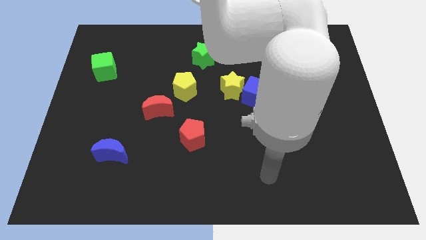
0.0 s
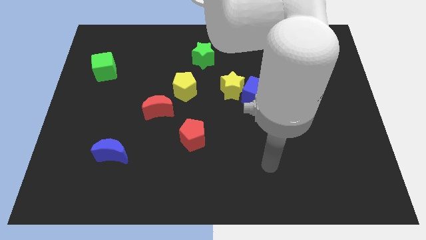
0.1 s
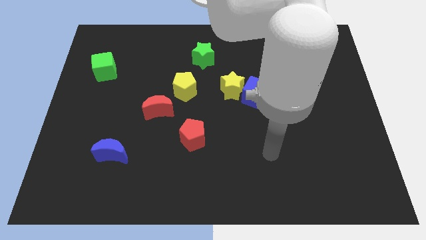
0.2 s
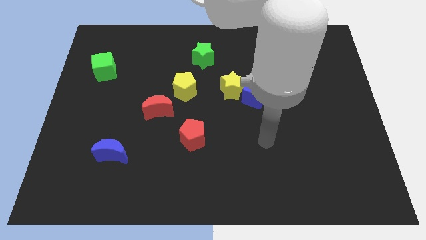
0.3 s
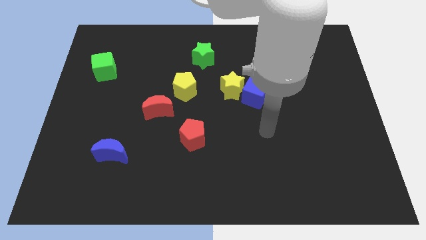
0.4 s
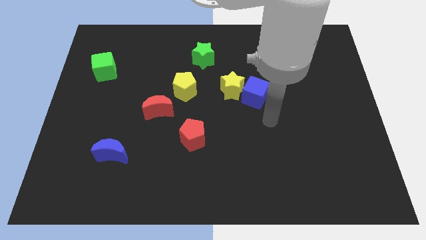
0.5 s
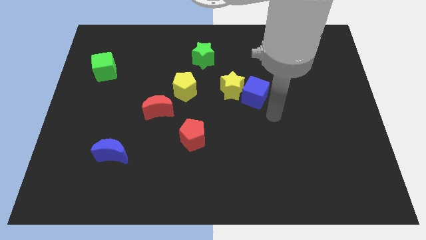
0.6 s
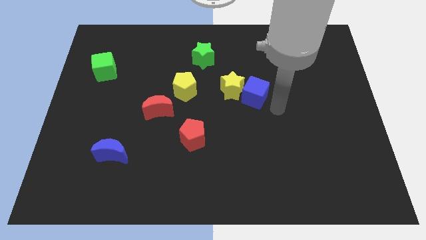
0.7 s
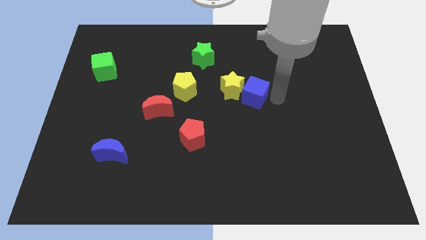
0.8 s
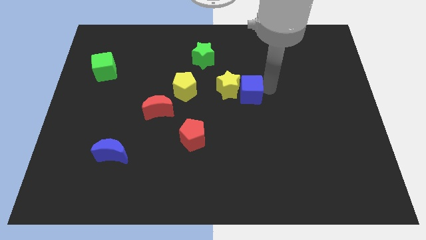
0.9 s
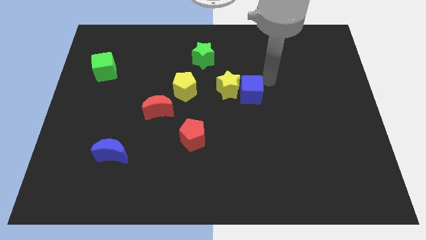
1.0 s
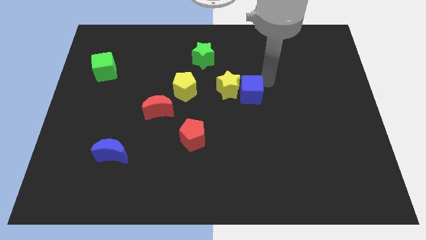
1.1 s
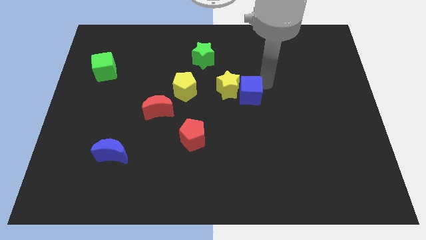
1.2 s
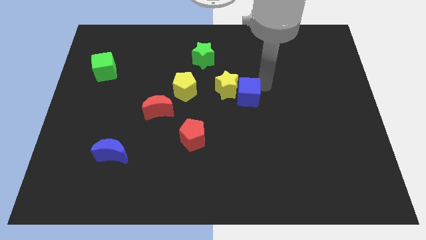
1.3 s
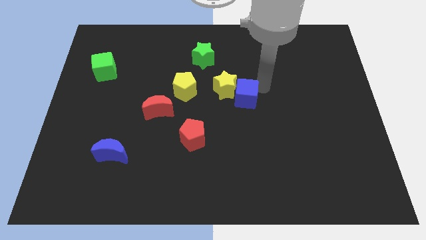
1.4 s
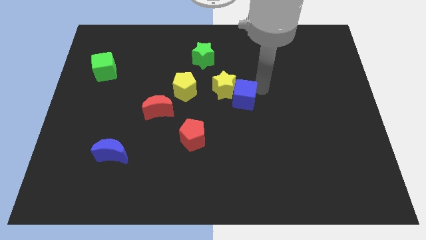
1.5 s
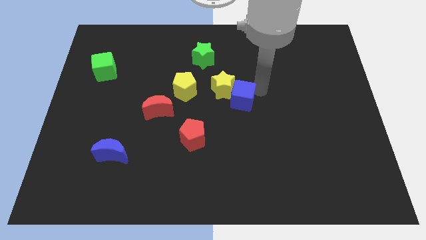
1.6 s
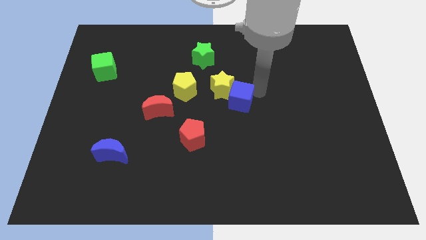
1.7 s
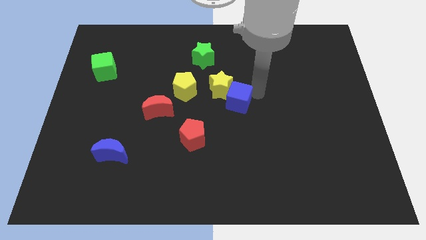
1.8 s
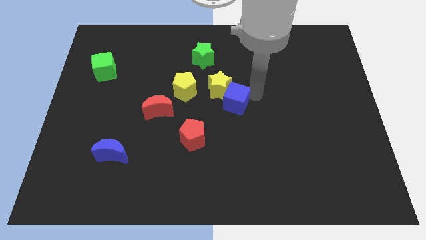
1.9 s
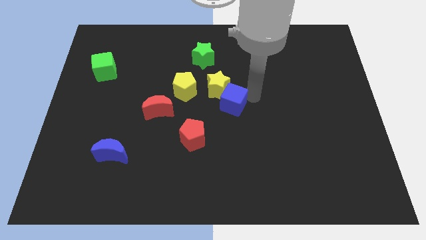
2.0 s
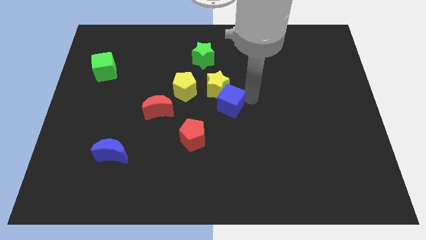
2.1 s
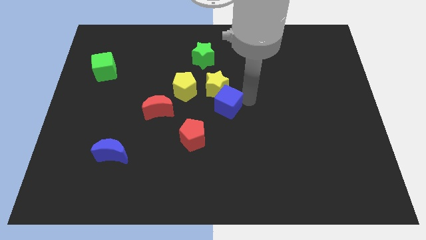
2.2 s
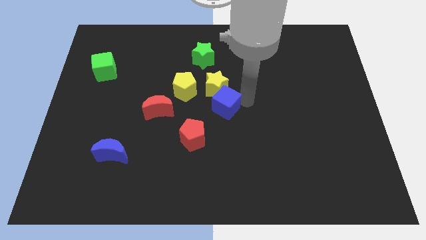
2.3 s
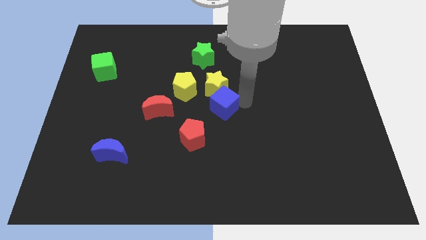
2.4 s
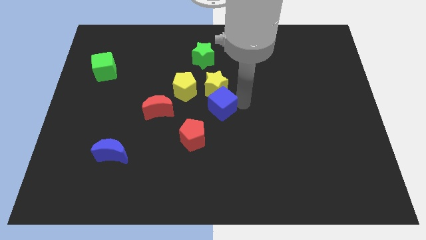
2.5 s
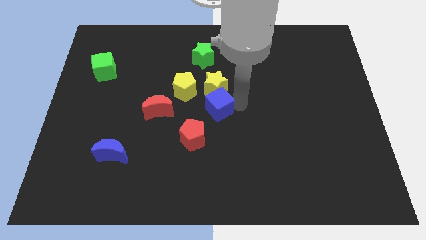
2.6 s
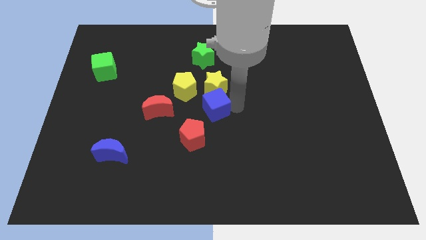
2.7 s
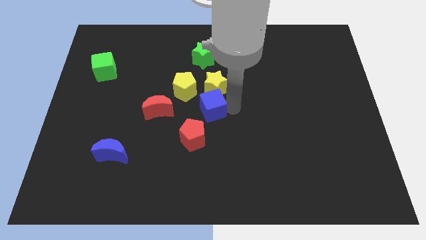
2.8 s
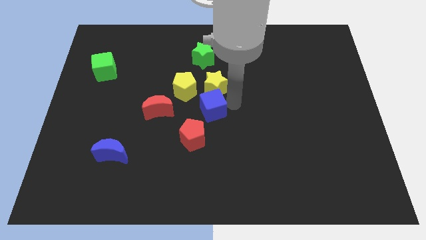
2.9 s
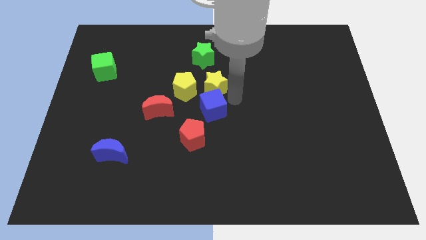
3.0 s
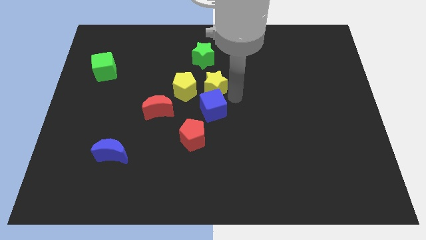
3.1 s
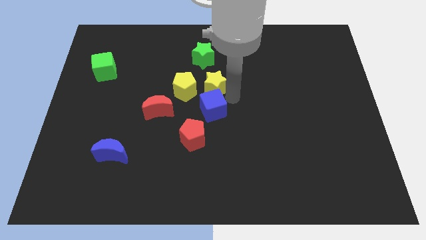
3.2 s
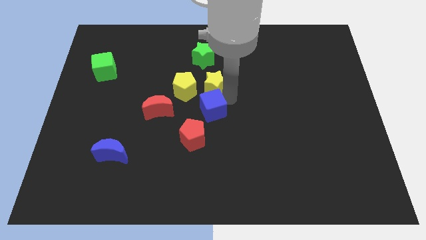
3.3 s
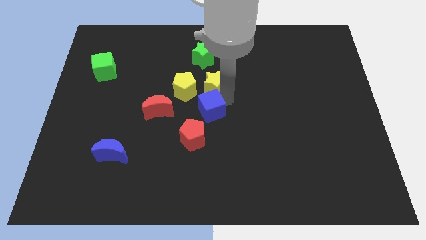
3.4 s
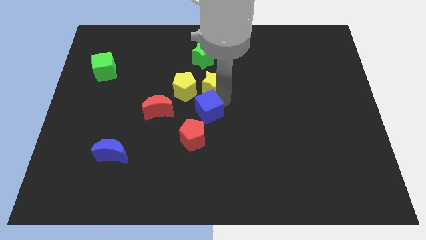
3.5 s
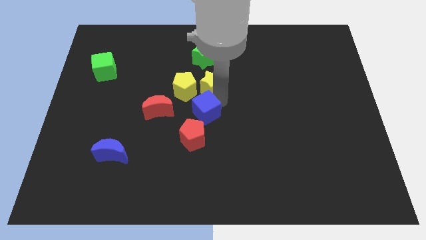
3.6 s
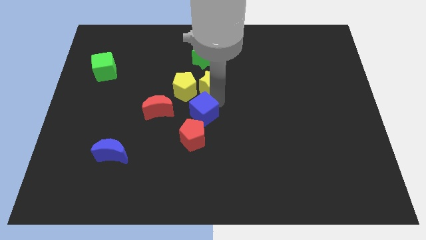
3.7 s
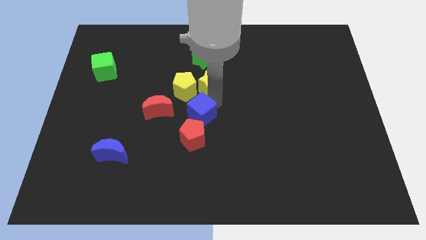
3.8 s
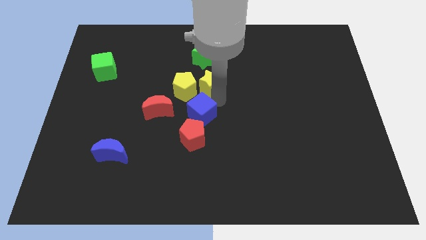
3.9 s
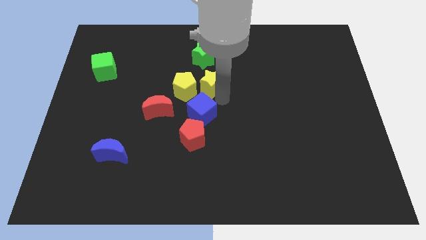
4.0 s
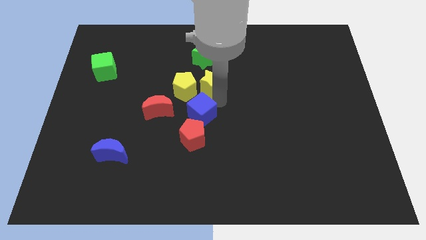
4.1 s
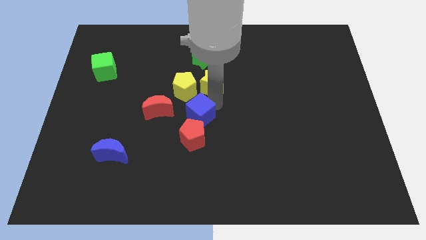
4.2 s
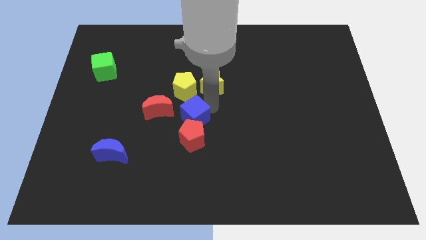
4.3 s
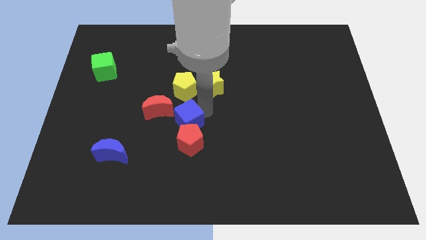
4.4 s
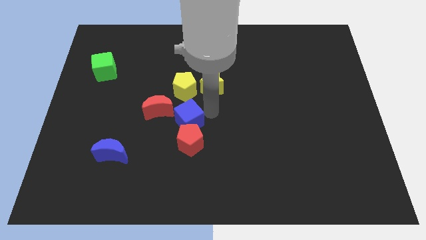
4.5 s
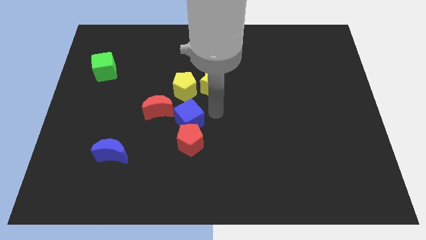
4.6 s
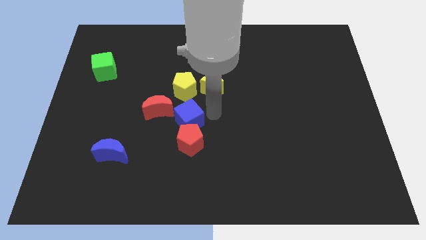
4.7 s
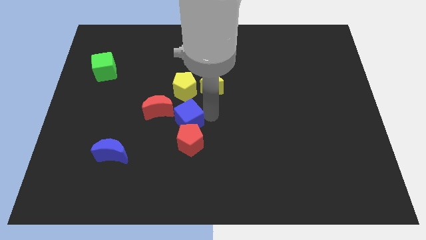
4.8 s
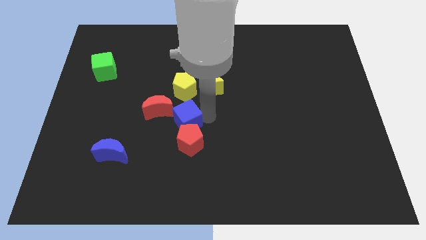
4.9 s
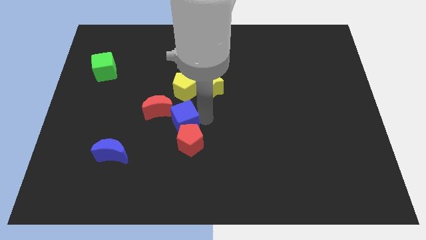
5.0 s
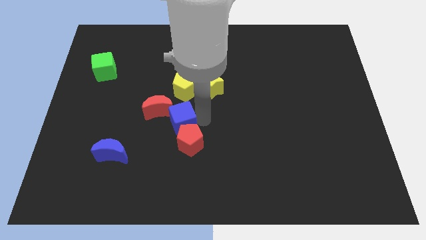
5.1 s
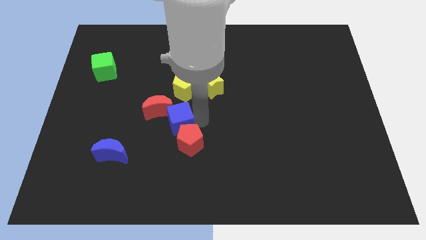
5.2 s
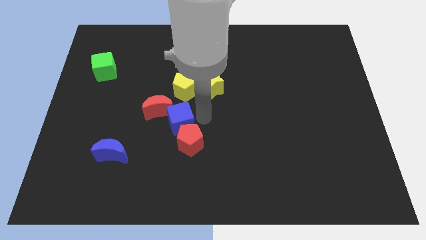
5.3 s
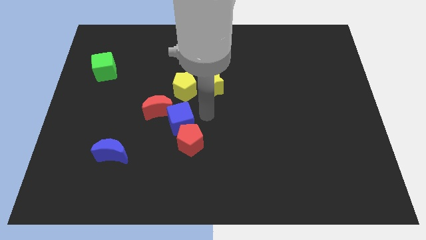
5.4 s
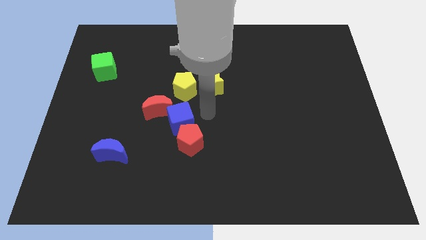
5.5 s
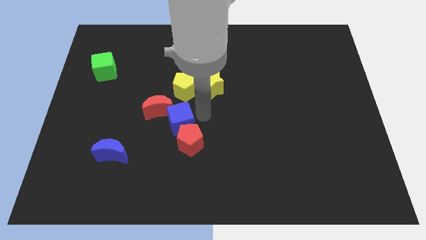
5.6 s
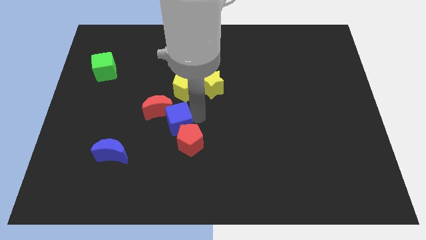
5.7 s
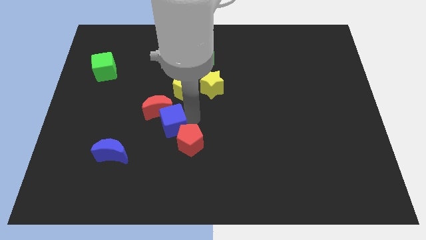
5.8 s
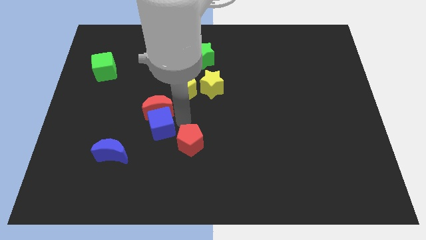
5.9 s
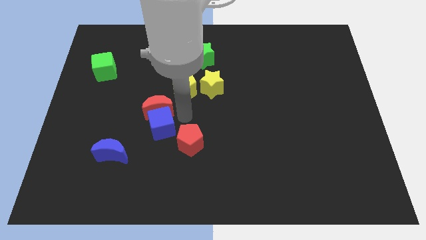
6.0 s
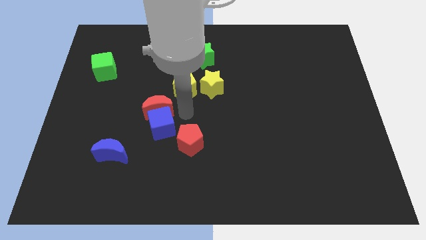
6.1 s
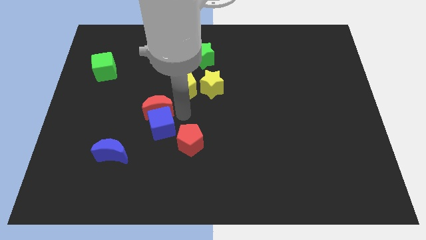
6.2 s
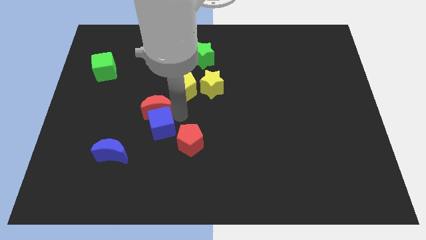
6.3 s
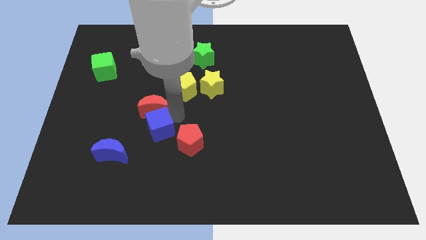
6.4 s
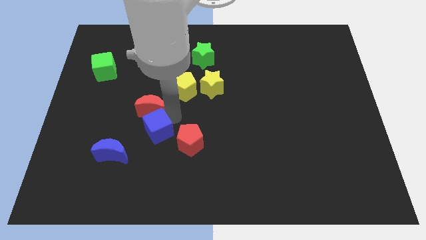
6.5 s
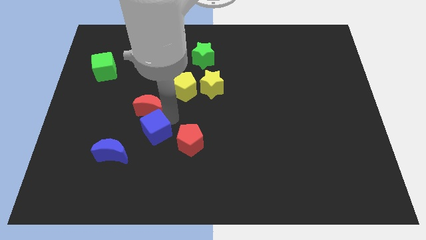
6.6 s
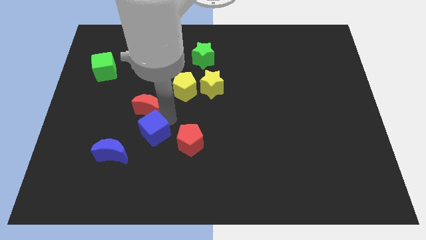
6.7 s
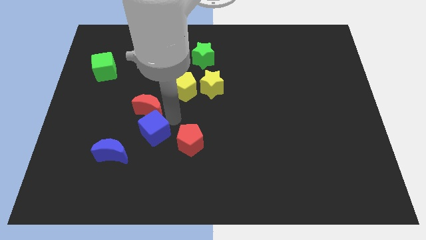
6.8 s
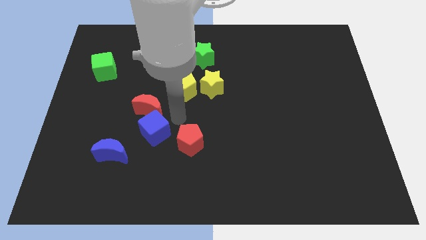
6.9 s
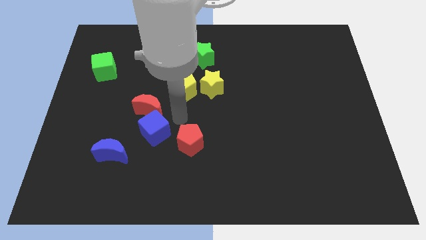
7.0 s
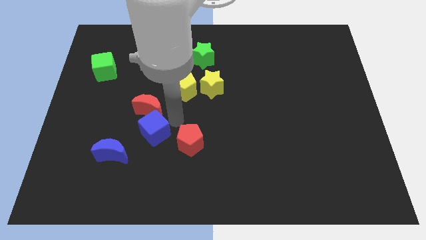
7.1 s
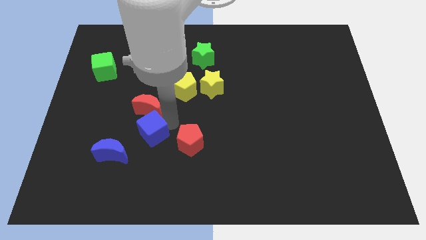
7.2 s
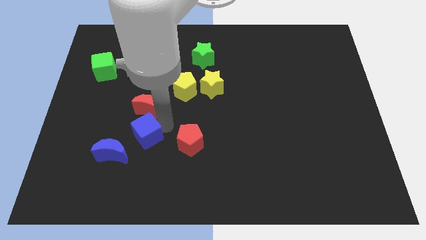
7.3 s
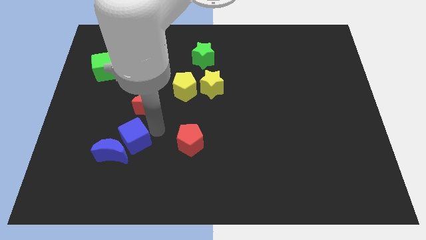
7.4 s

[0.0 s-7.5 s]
move the blue cube close to the blue moon
